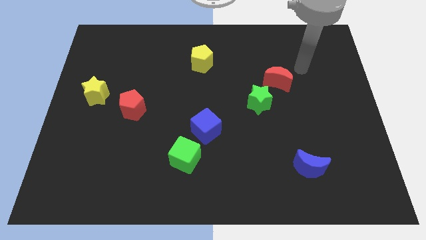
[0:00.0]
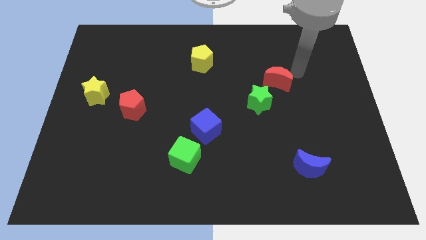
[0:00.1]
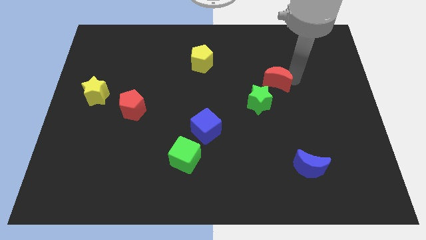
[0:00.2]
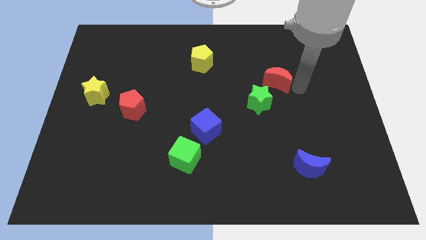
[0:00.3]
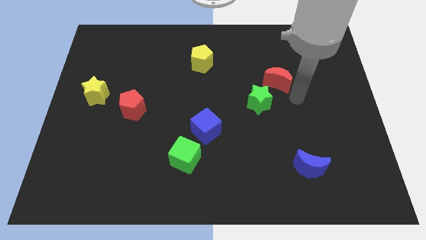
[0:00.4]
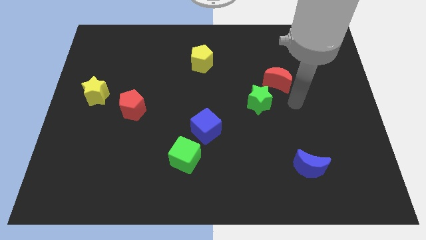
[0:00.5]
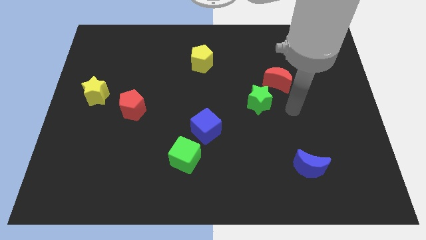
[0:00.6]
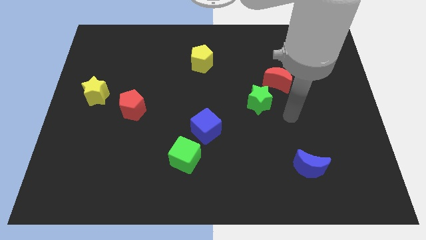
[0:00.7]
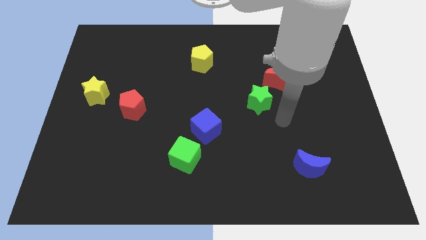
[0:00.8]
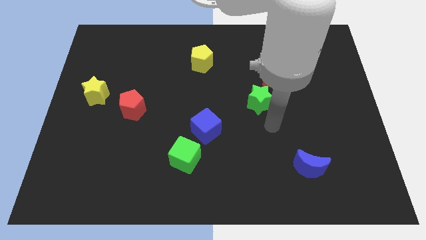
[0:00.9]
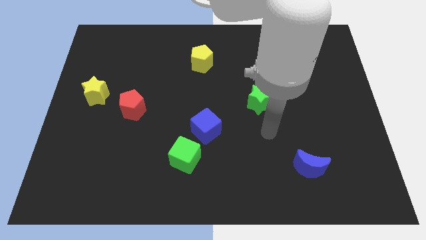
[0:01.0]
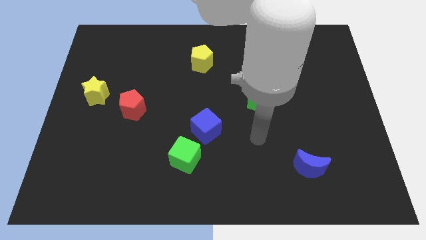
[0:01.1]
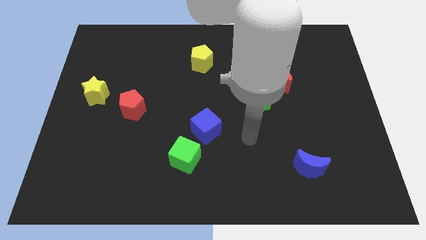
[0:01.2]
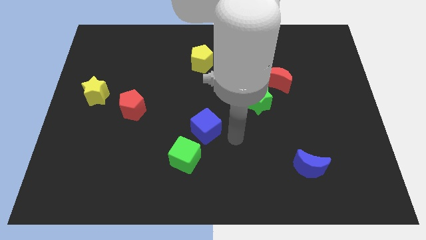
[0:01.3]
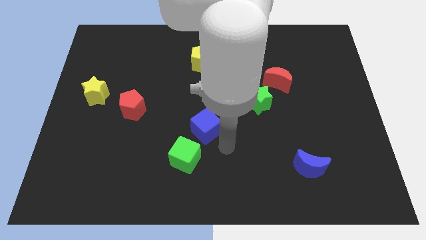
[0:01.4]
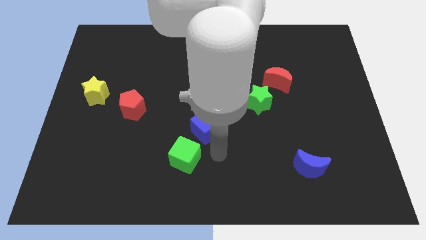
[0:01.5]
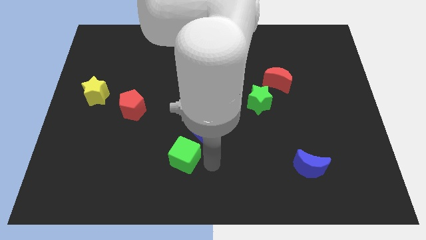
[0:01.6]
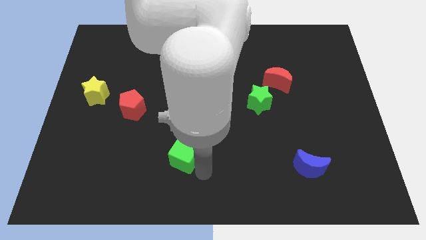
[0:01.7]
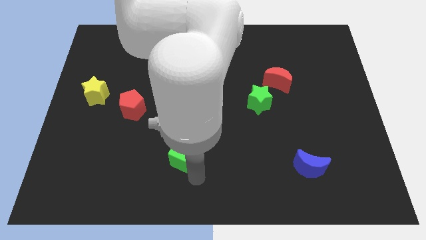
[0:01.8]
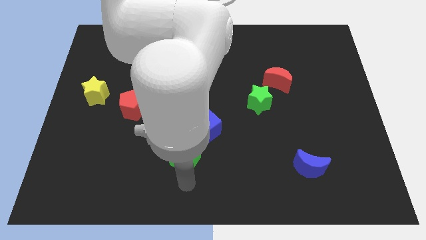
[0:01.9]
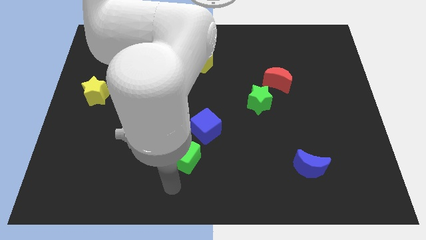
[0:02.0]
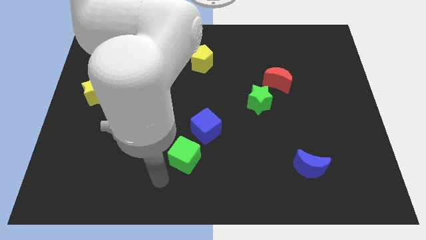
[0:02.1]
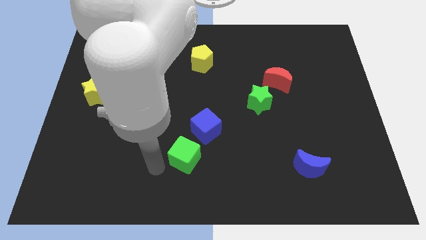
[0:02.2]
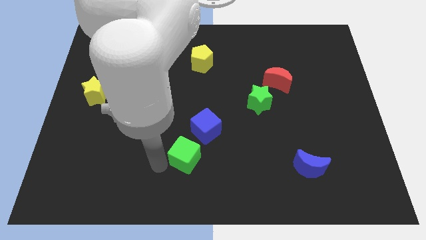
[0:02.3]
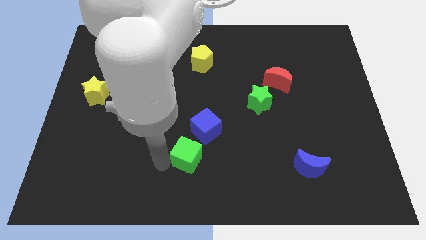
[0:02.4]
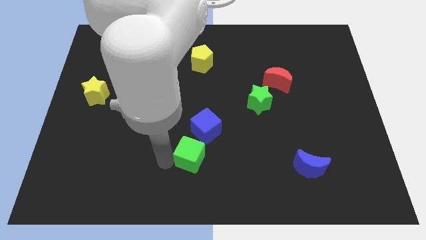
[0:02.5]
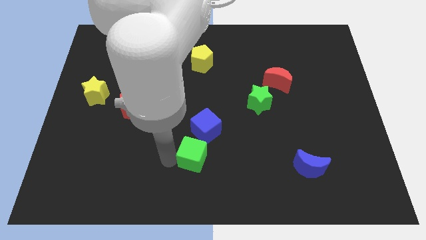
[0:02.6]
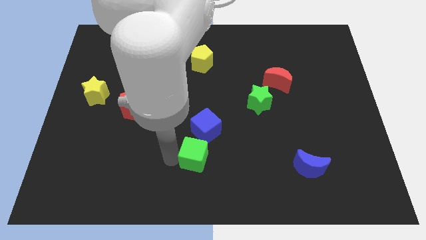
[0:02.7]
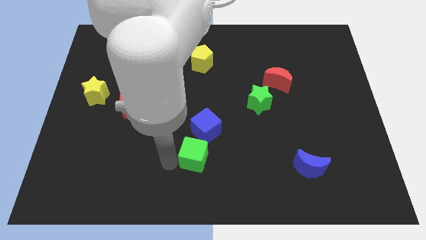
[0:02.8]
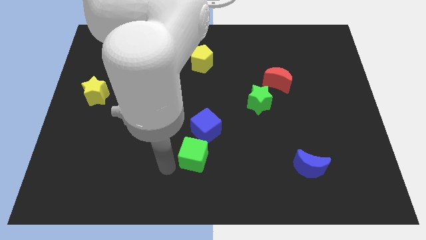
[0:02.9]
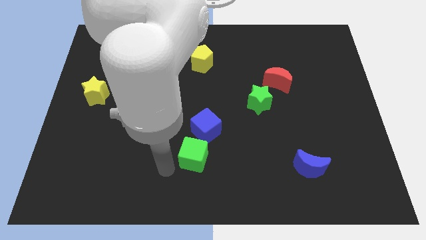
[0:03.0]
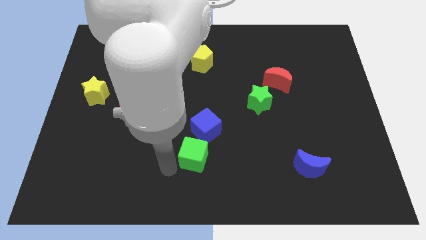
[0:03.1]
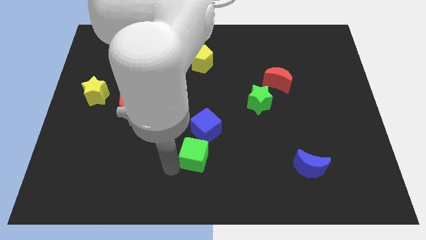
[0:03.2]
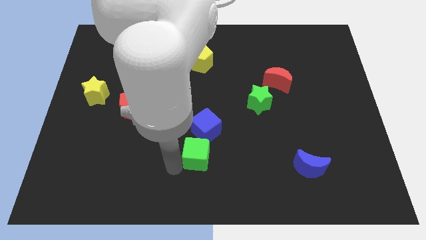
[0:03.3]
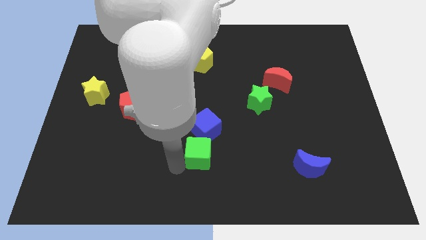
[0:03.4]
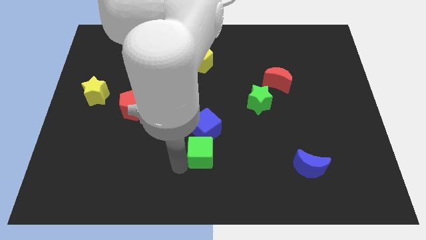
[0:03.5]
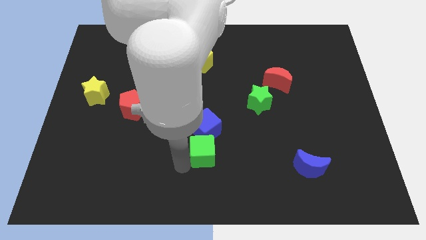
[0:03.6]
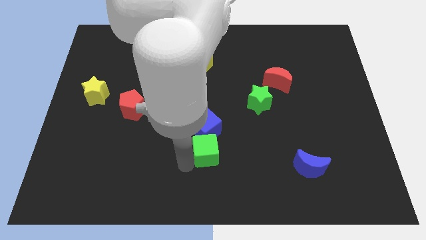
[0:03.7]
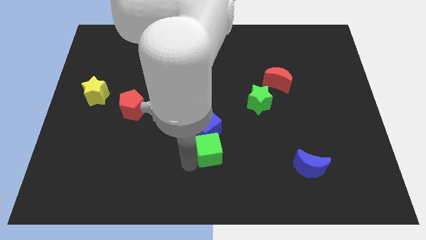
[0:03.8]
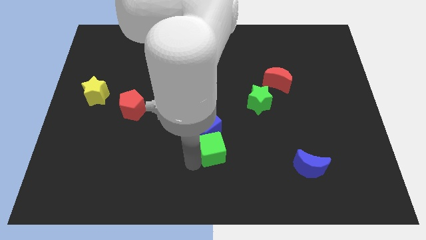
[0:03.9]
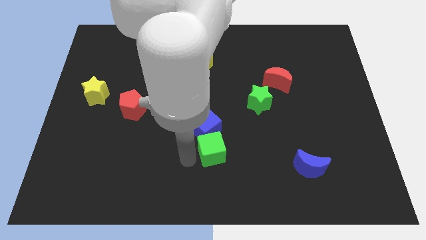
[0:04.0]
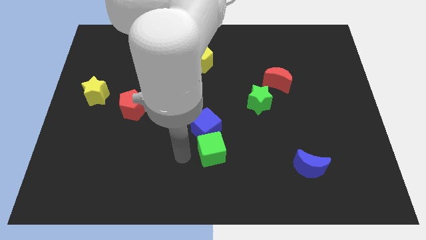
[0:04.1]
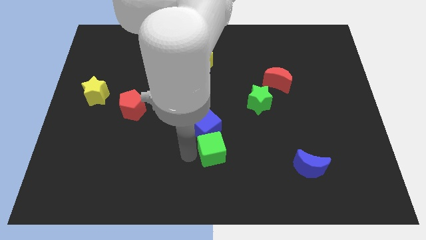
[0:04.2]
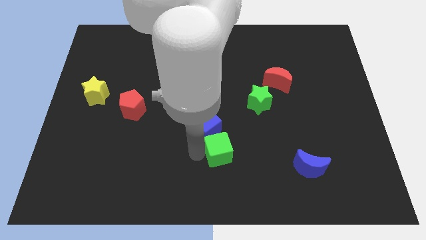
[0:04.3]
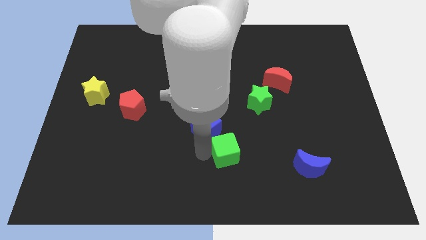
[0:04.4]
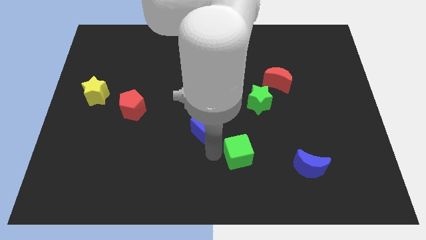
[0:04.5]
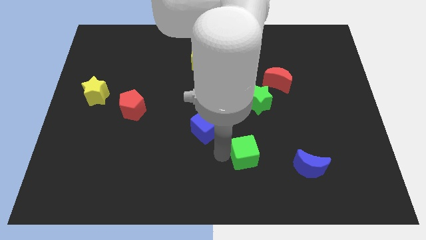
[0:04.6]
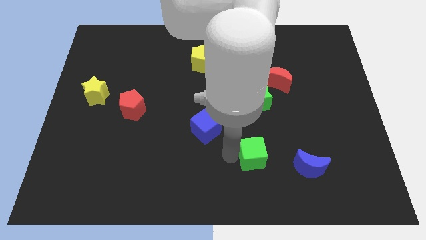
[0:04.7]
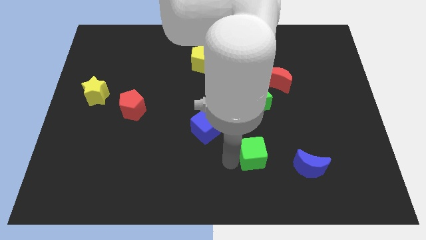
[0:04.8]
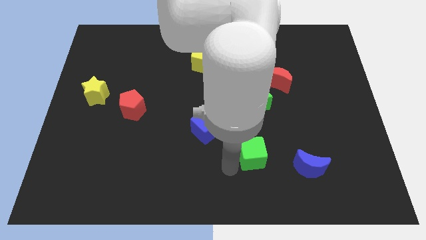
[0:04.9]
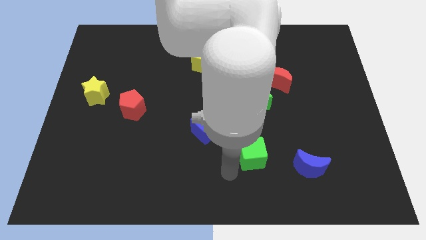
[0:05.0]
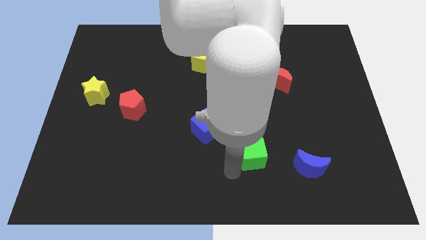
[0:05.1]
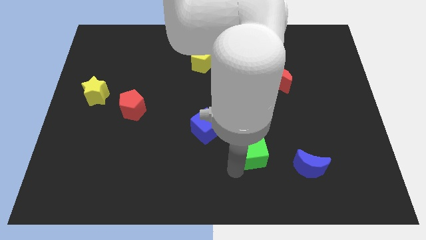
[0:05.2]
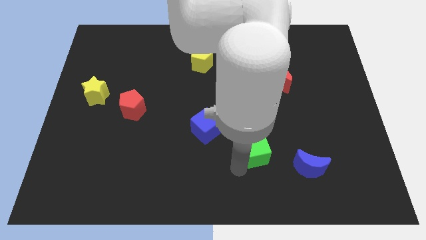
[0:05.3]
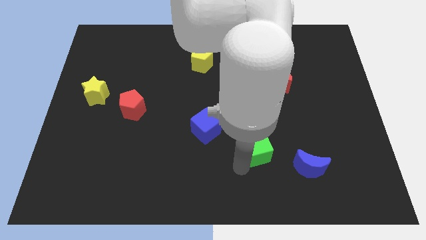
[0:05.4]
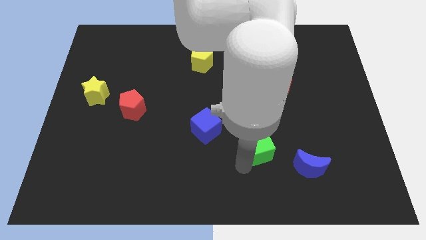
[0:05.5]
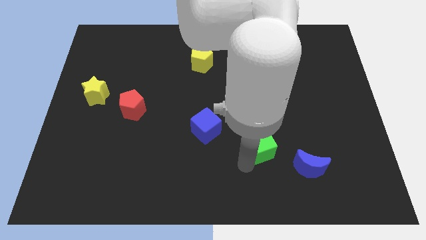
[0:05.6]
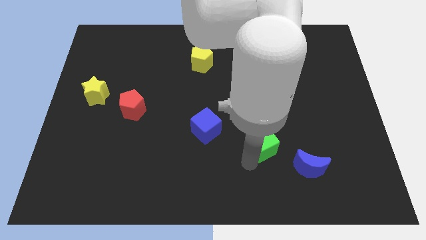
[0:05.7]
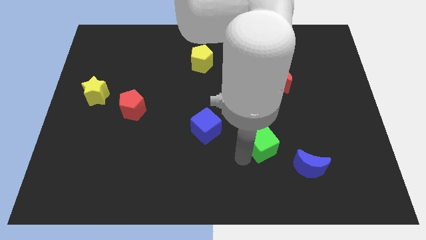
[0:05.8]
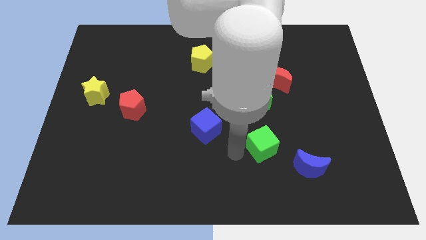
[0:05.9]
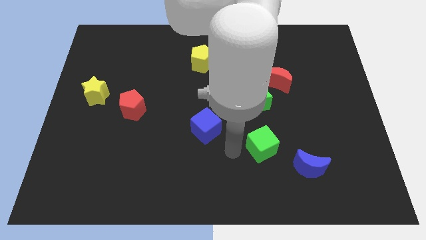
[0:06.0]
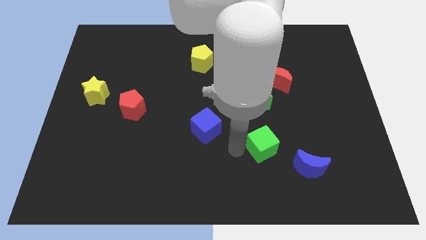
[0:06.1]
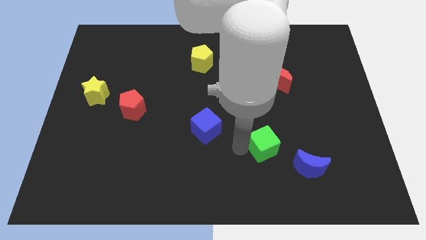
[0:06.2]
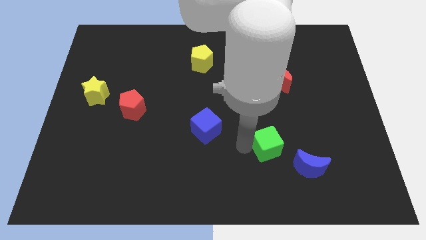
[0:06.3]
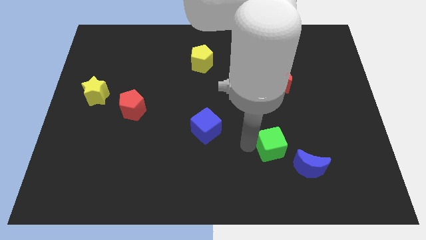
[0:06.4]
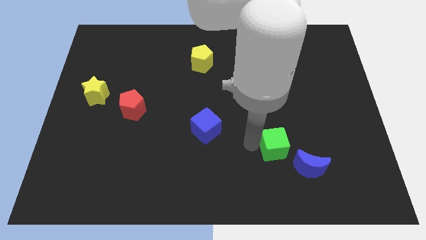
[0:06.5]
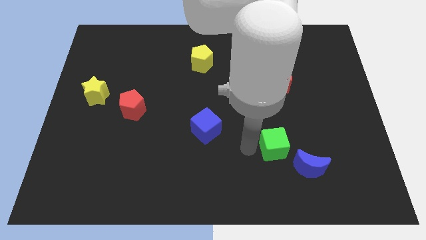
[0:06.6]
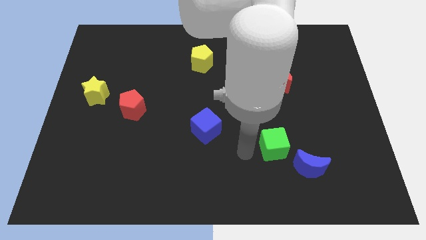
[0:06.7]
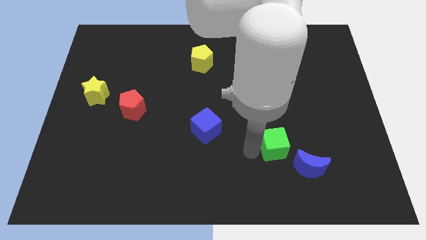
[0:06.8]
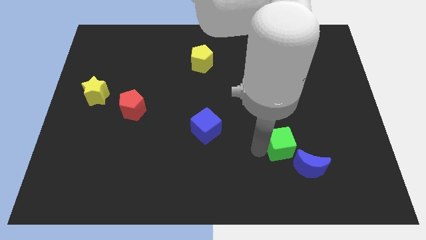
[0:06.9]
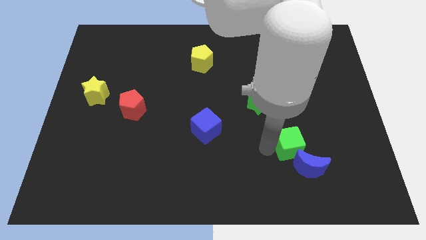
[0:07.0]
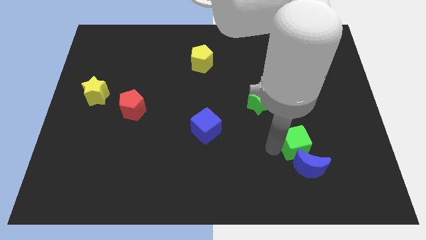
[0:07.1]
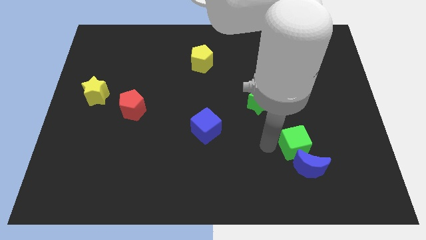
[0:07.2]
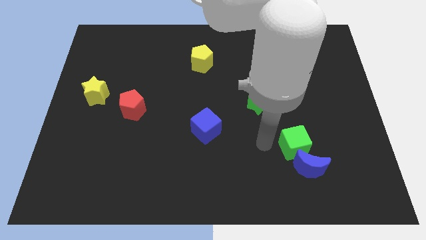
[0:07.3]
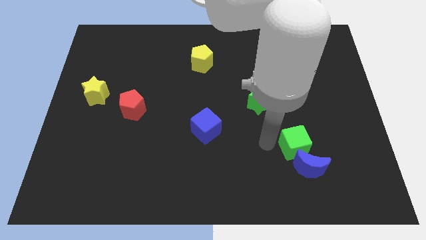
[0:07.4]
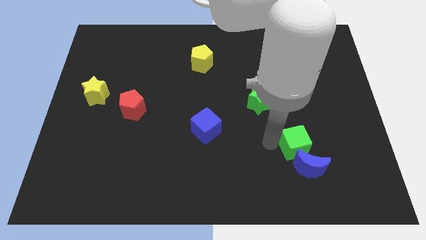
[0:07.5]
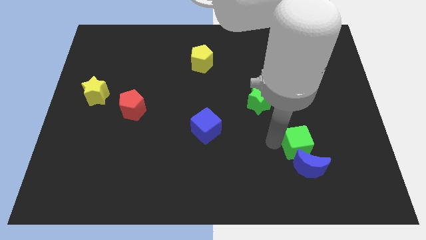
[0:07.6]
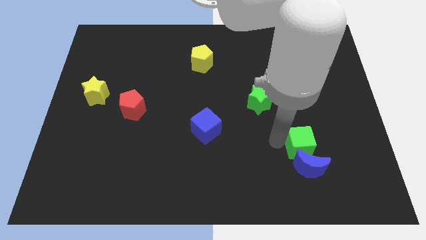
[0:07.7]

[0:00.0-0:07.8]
push the green cube diagonally up and to the right of the blue moon
